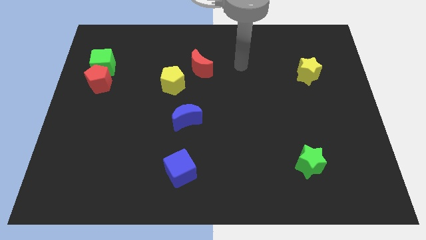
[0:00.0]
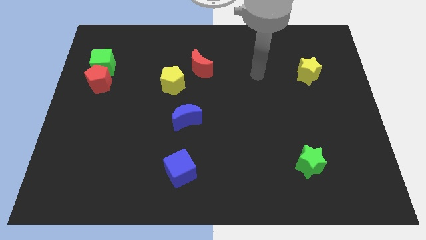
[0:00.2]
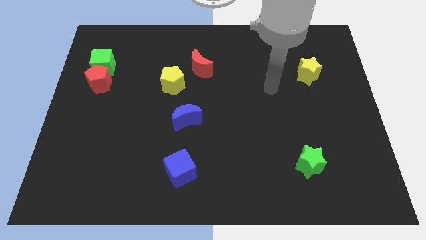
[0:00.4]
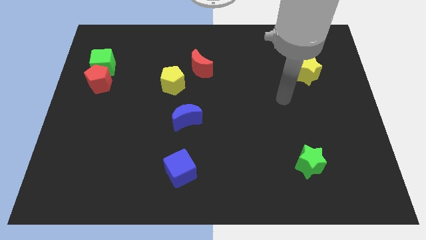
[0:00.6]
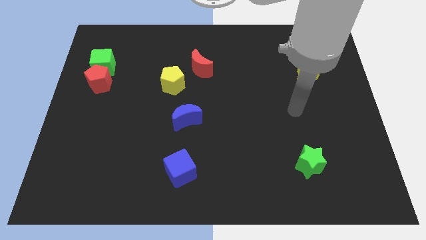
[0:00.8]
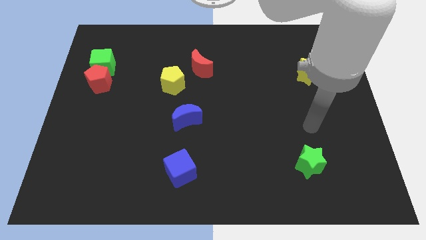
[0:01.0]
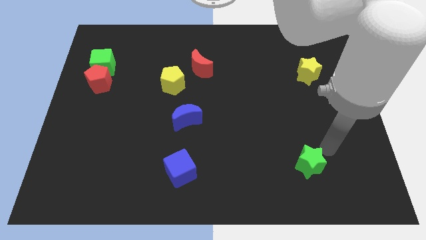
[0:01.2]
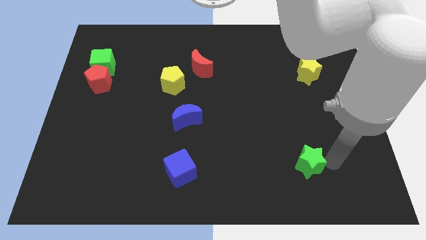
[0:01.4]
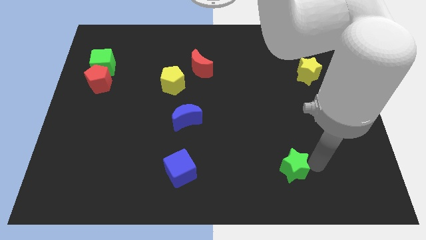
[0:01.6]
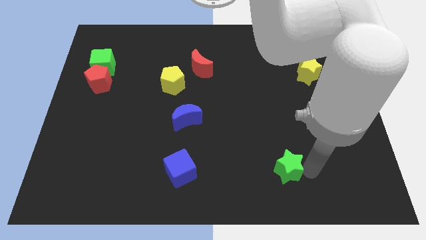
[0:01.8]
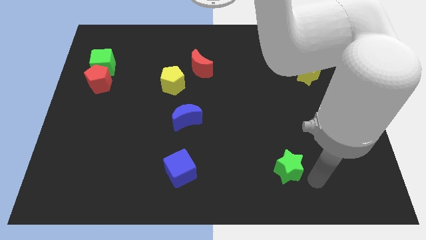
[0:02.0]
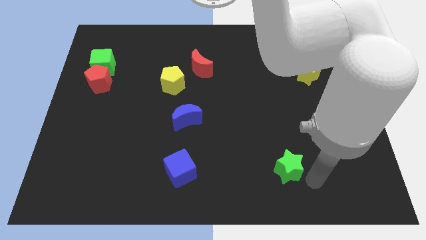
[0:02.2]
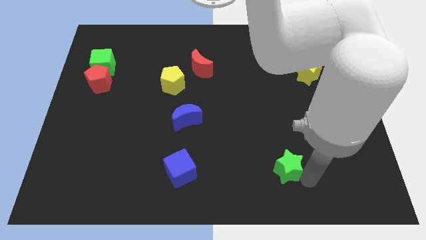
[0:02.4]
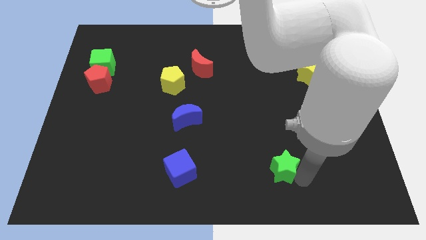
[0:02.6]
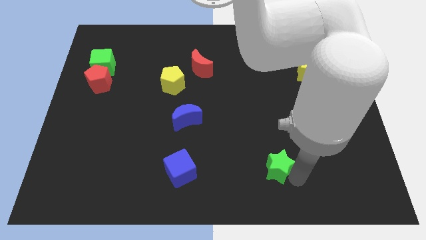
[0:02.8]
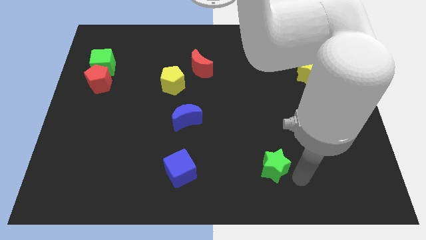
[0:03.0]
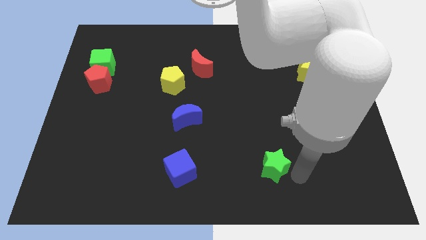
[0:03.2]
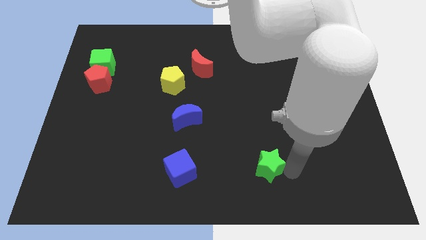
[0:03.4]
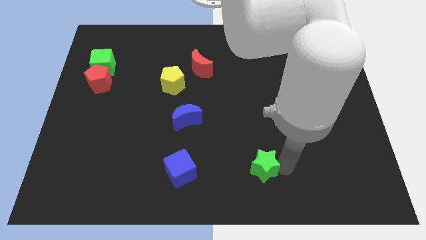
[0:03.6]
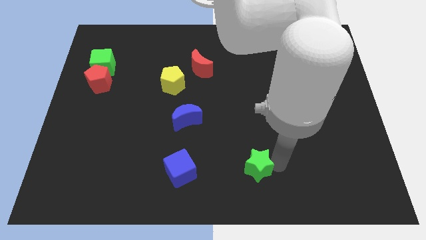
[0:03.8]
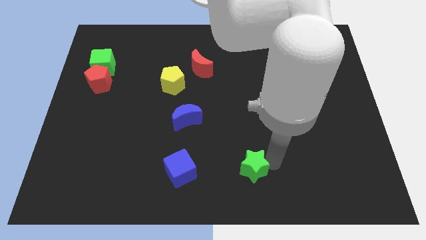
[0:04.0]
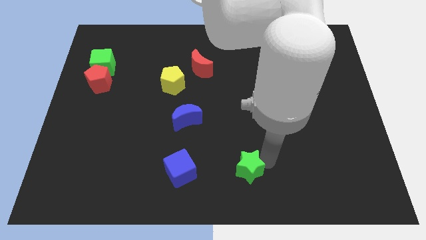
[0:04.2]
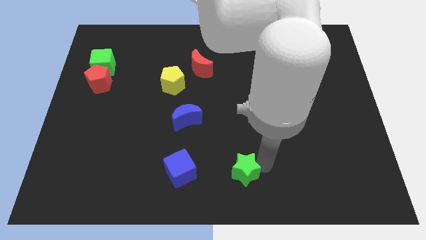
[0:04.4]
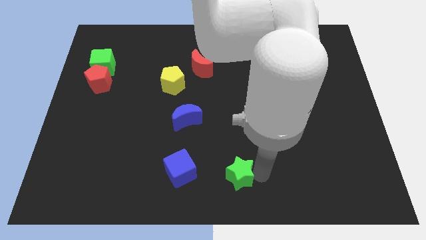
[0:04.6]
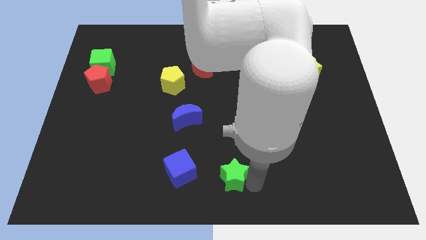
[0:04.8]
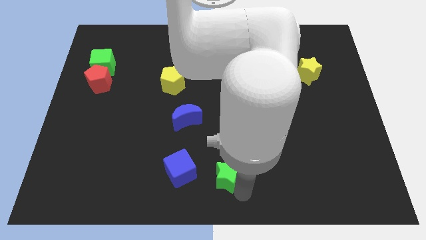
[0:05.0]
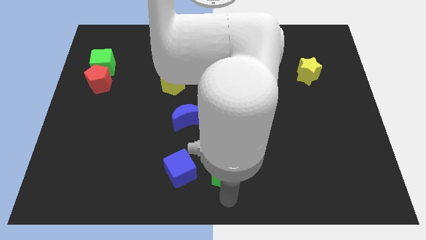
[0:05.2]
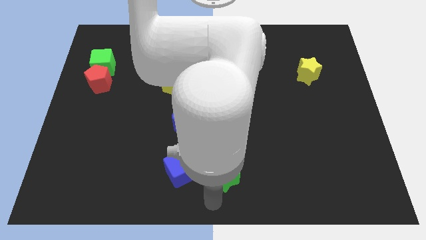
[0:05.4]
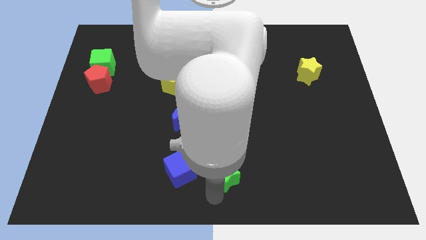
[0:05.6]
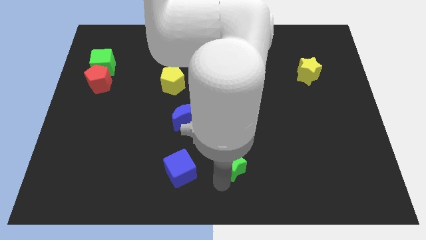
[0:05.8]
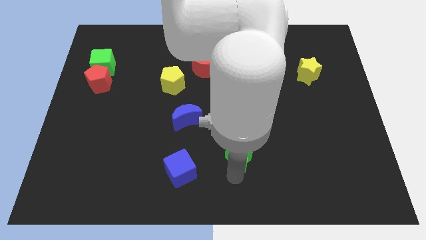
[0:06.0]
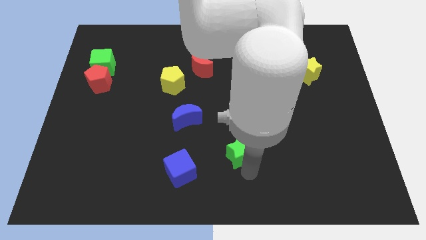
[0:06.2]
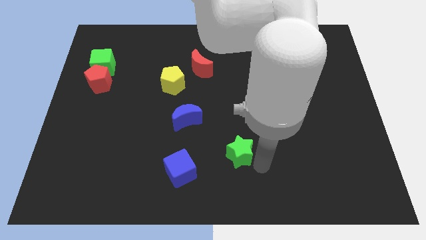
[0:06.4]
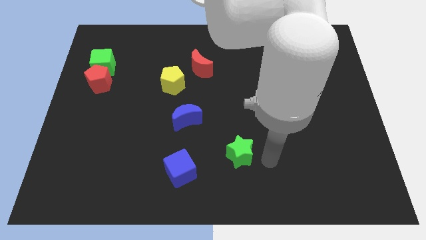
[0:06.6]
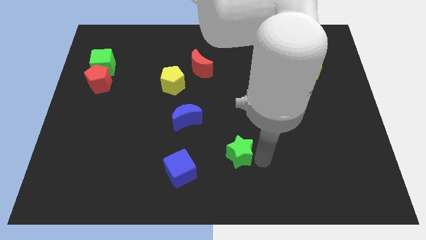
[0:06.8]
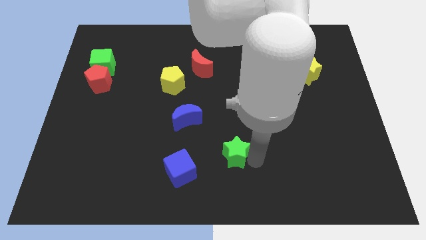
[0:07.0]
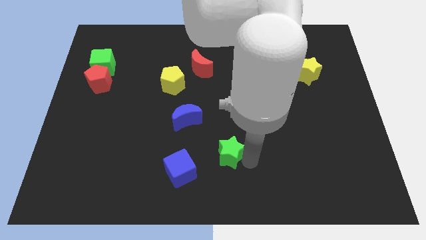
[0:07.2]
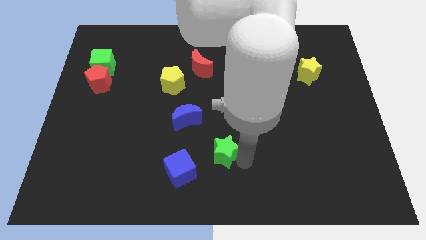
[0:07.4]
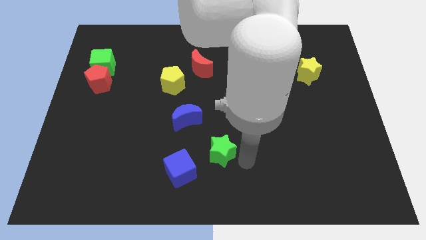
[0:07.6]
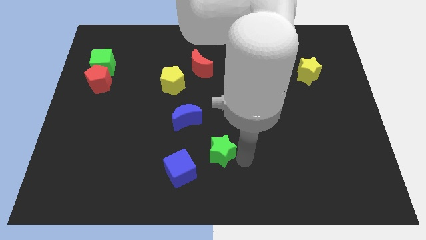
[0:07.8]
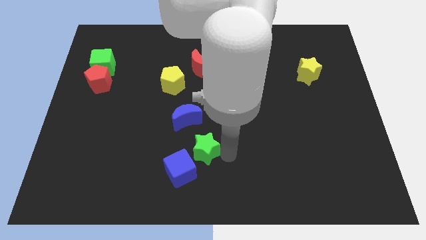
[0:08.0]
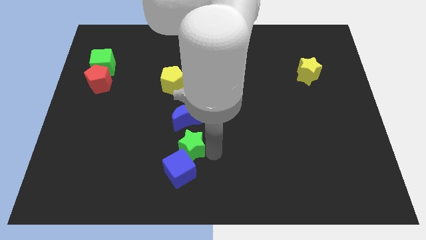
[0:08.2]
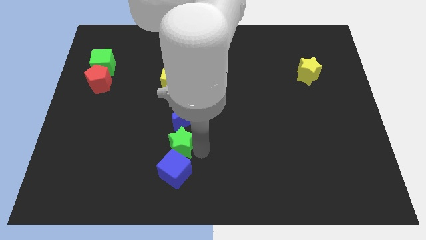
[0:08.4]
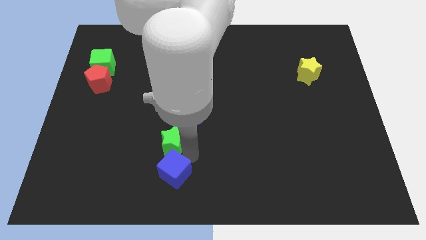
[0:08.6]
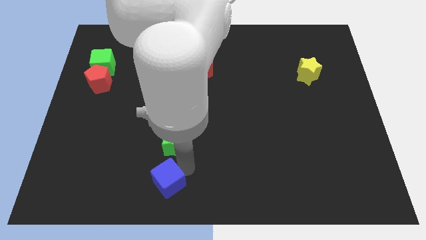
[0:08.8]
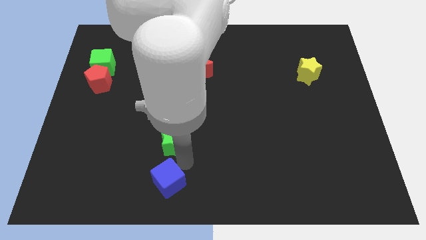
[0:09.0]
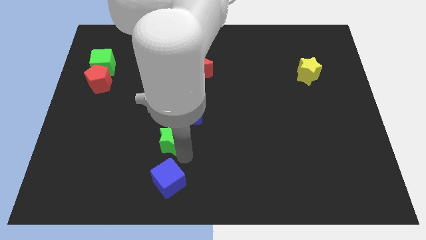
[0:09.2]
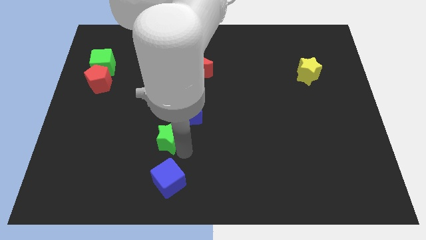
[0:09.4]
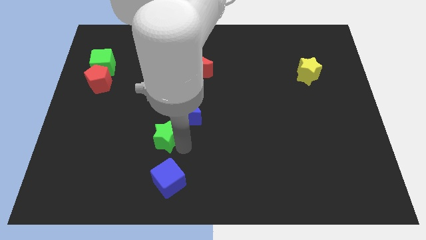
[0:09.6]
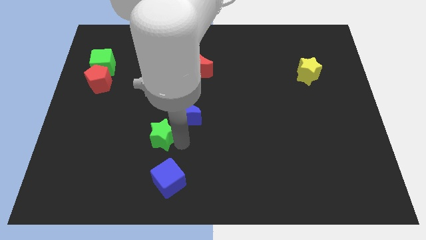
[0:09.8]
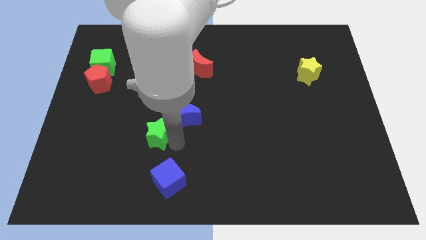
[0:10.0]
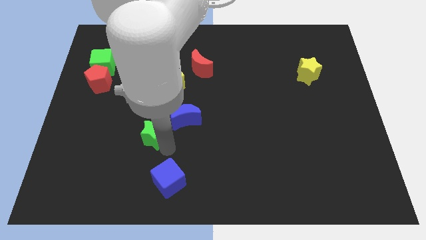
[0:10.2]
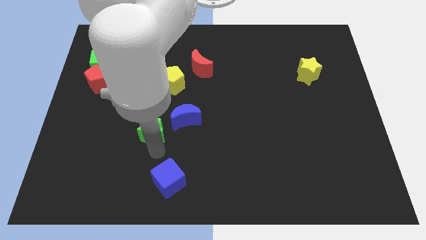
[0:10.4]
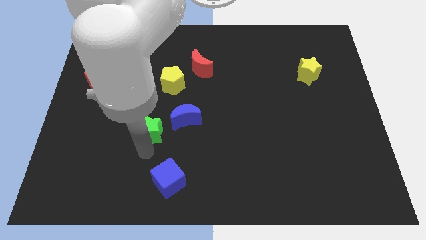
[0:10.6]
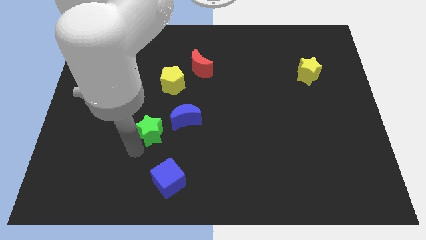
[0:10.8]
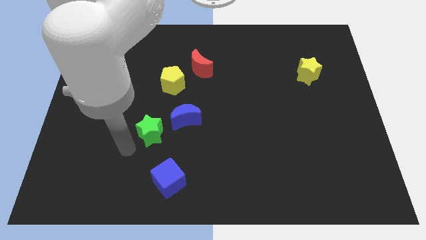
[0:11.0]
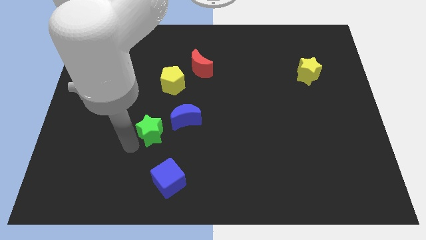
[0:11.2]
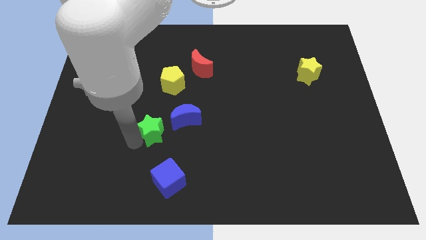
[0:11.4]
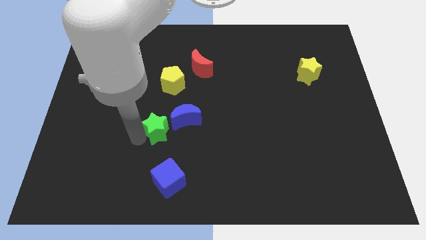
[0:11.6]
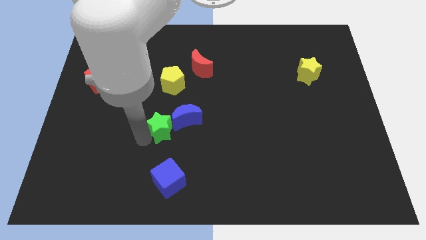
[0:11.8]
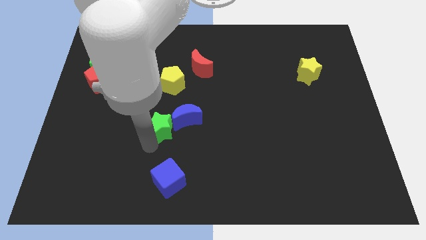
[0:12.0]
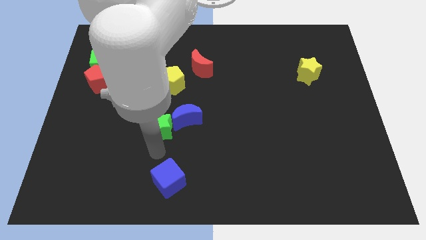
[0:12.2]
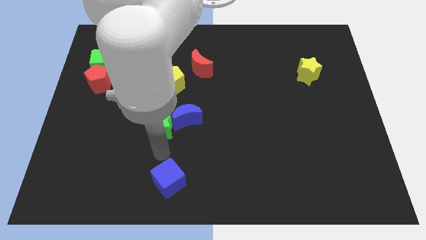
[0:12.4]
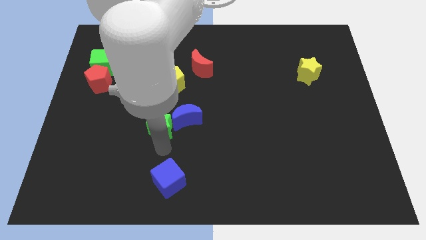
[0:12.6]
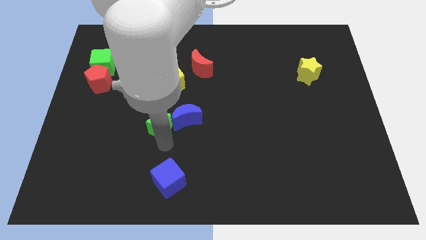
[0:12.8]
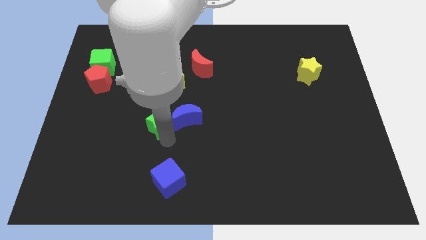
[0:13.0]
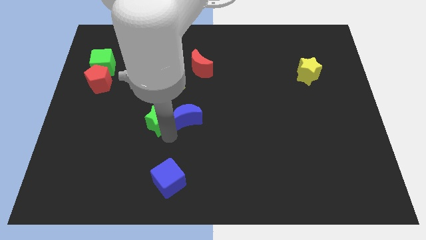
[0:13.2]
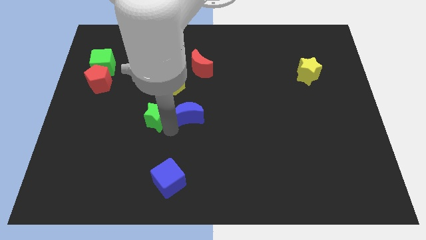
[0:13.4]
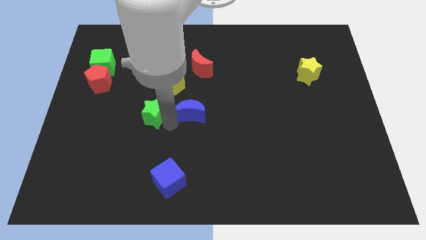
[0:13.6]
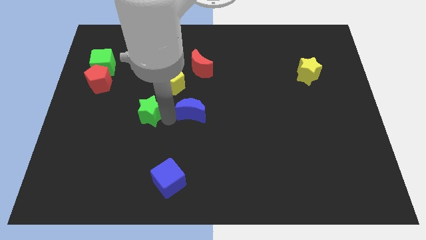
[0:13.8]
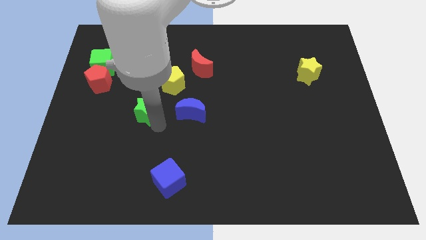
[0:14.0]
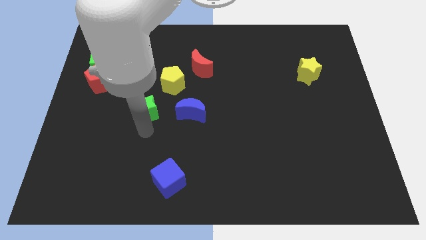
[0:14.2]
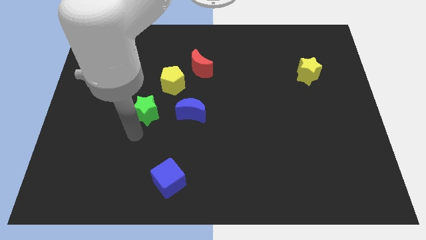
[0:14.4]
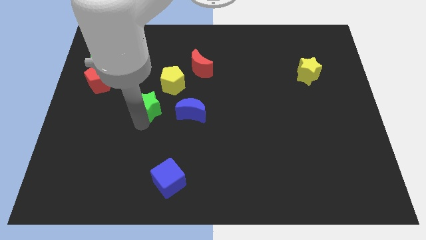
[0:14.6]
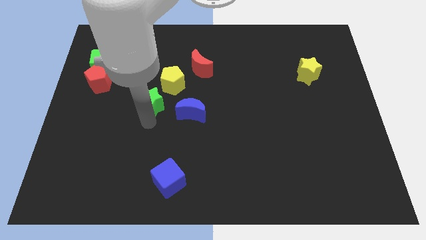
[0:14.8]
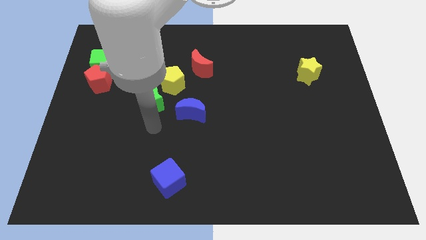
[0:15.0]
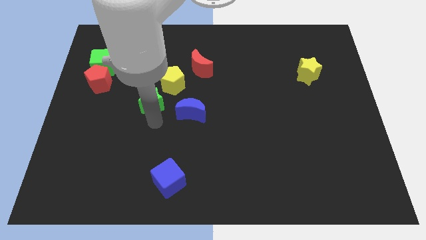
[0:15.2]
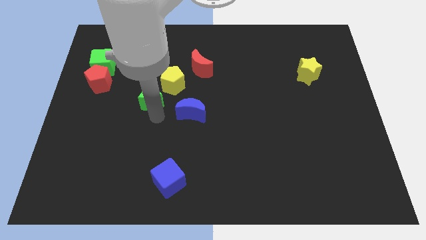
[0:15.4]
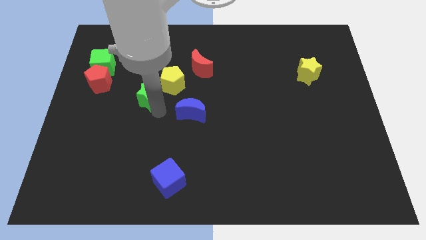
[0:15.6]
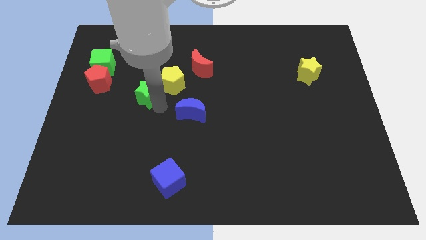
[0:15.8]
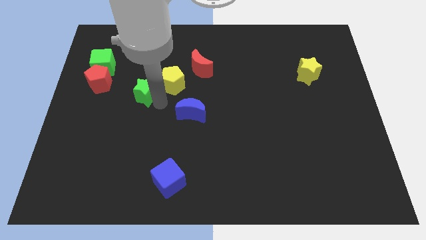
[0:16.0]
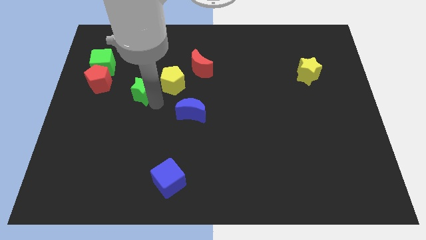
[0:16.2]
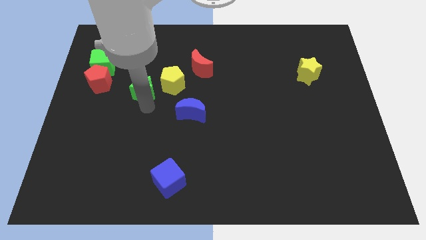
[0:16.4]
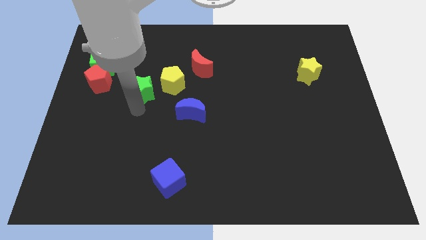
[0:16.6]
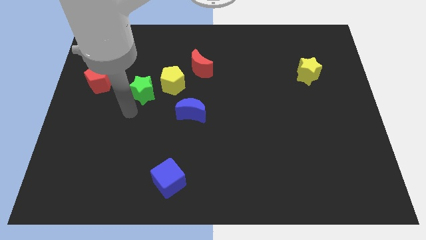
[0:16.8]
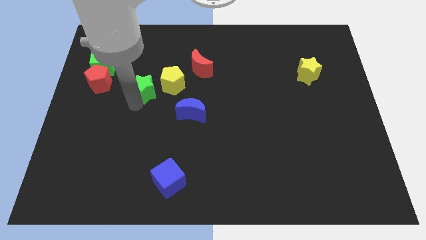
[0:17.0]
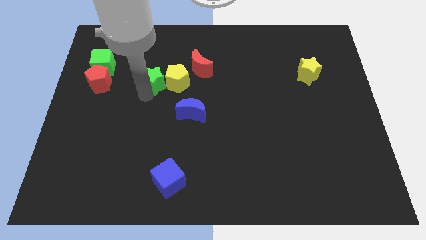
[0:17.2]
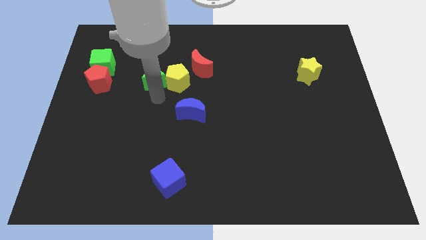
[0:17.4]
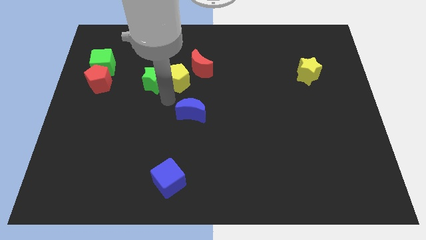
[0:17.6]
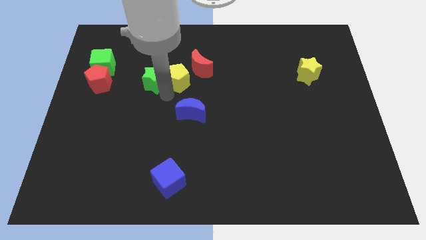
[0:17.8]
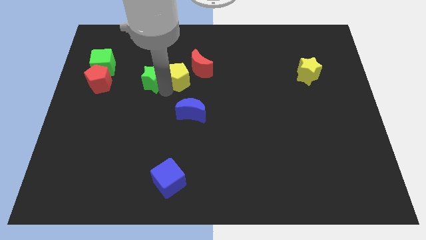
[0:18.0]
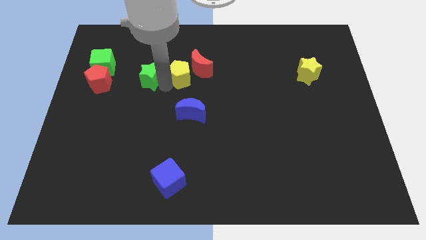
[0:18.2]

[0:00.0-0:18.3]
move the green star to the right side of the green cube
